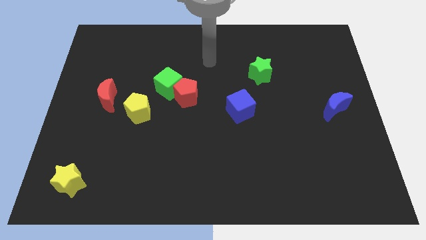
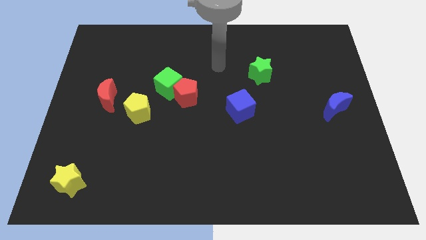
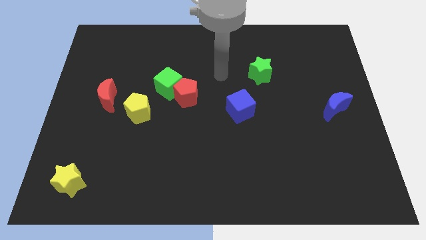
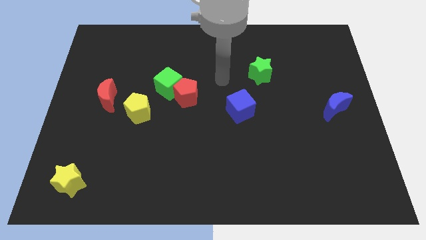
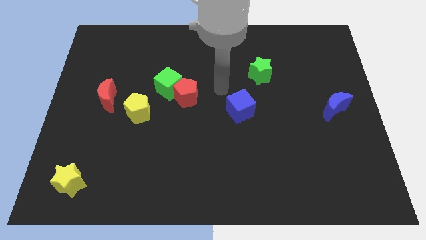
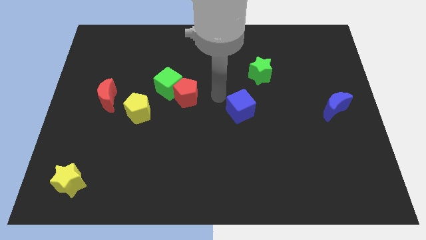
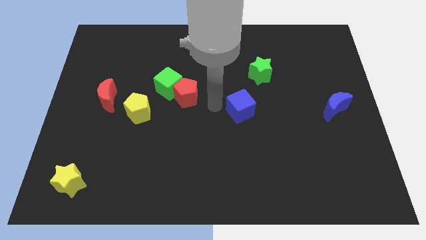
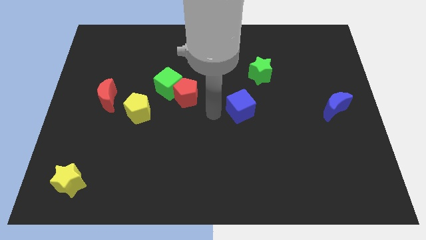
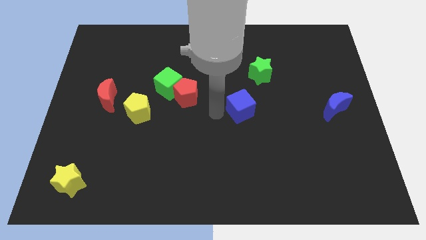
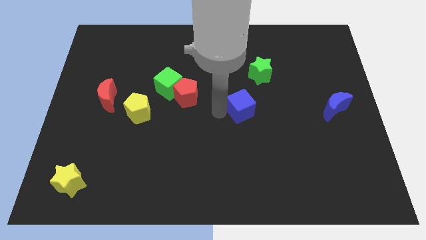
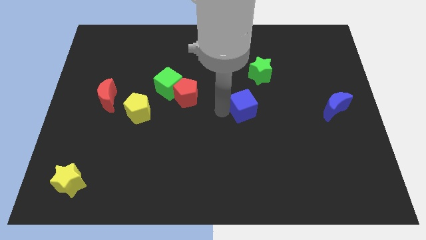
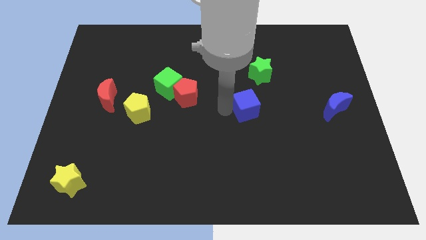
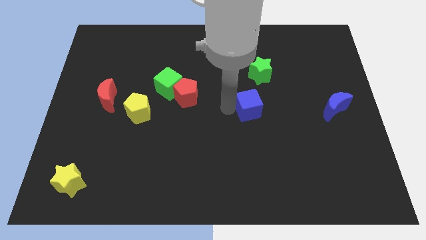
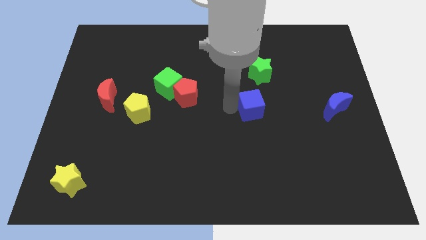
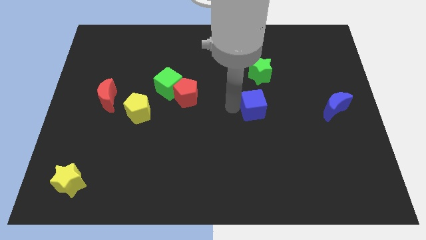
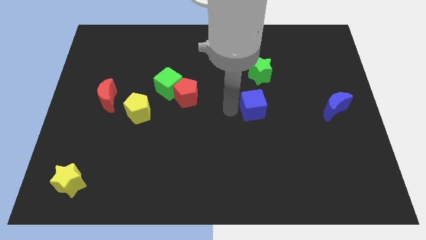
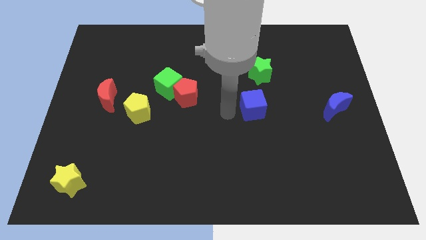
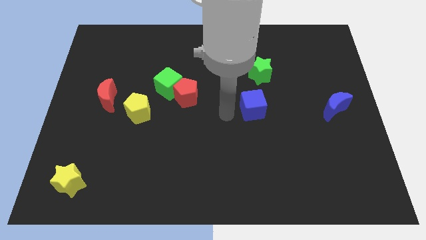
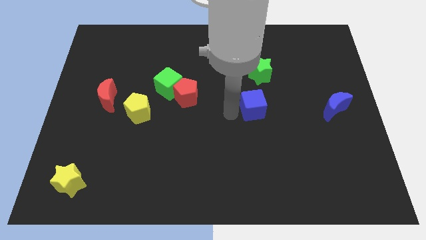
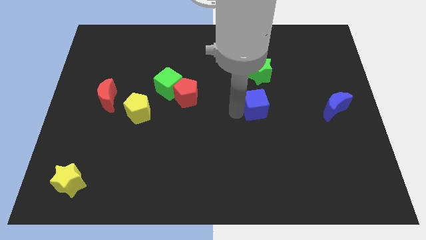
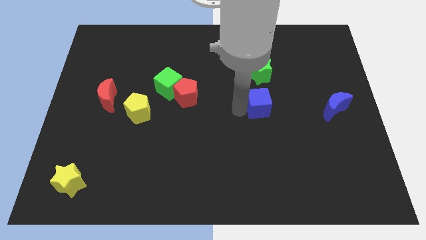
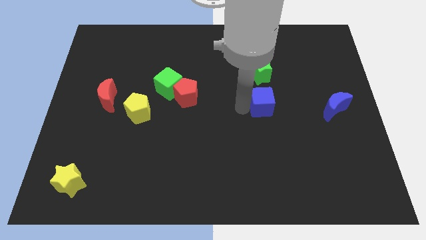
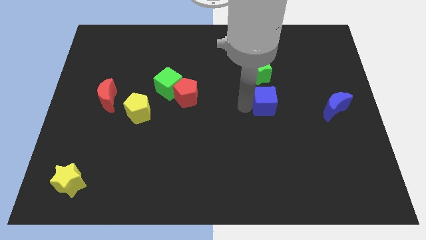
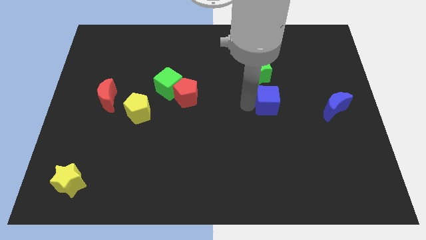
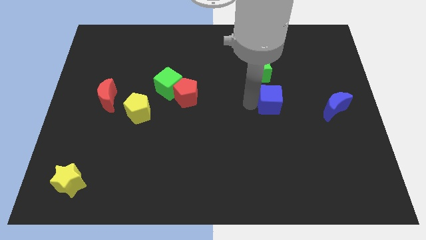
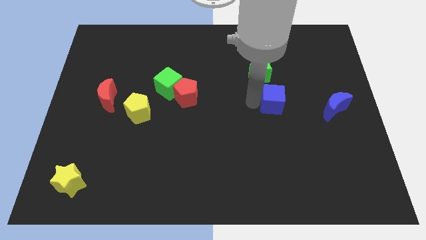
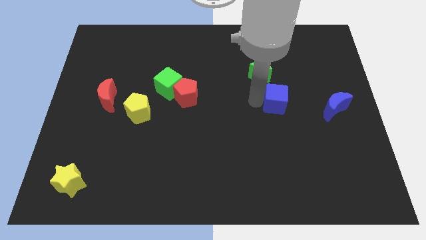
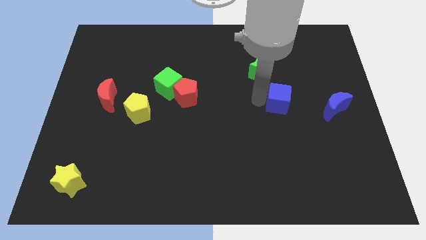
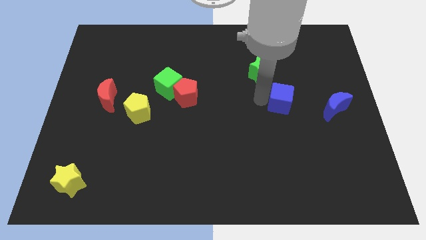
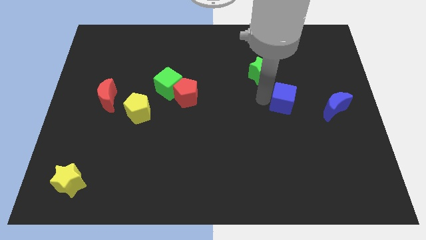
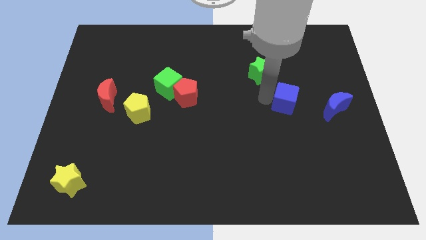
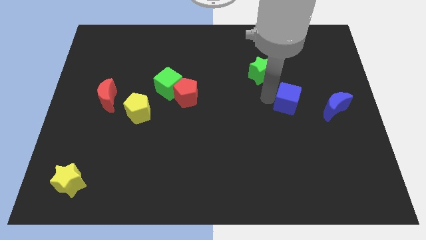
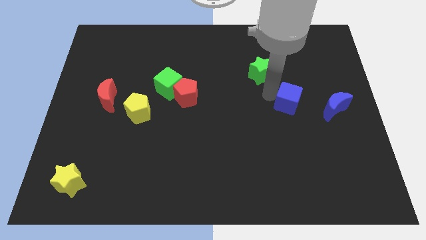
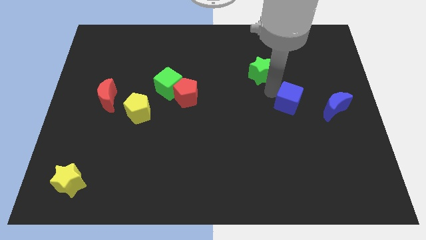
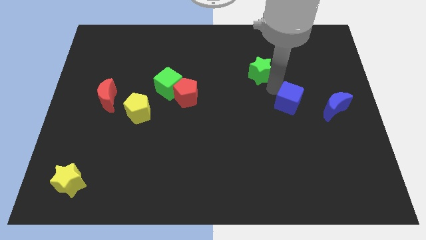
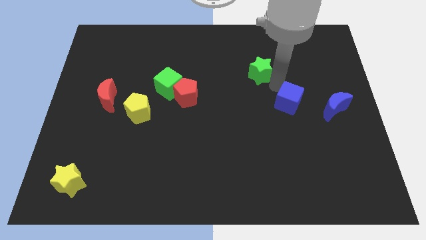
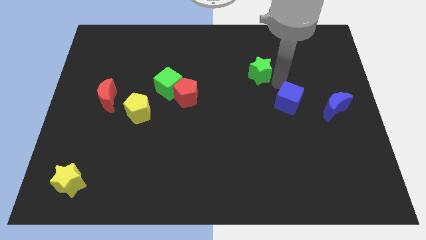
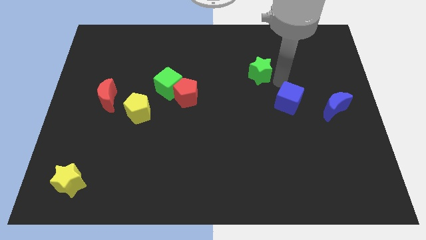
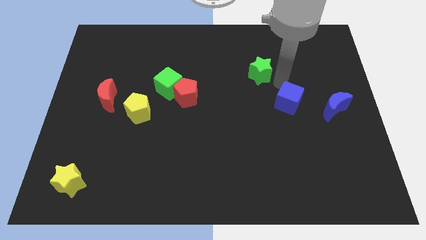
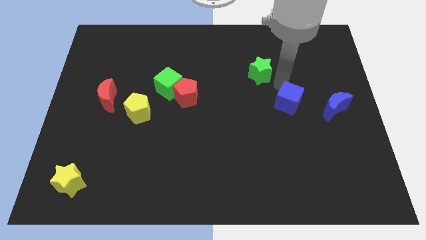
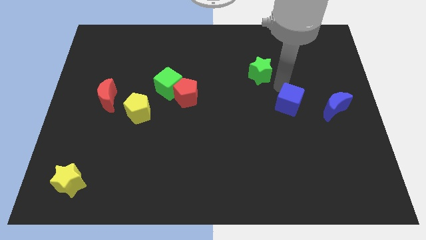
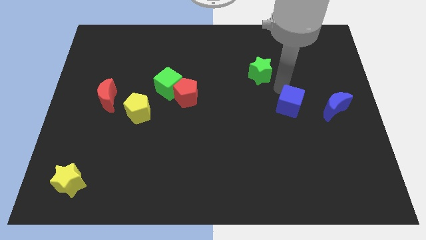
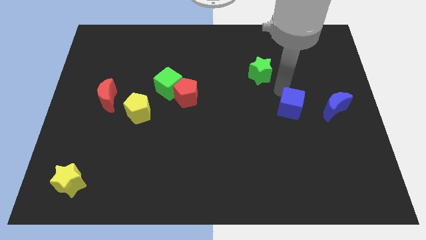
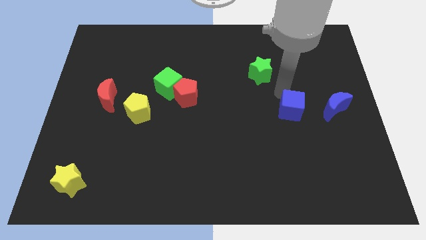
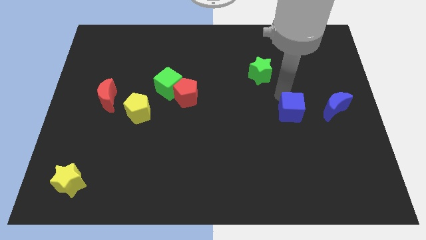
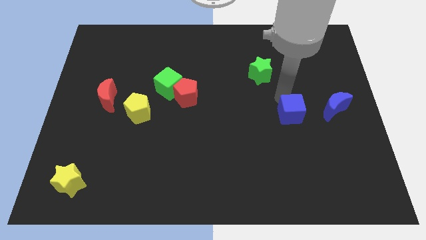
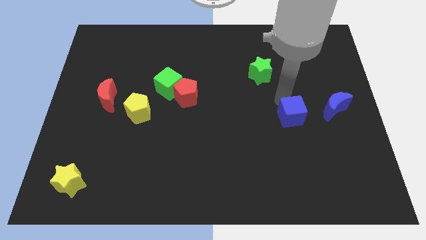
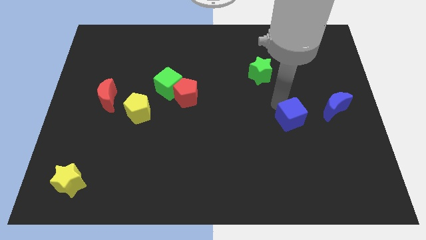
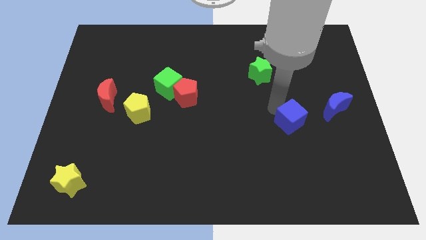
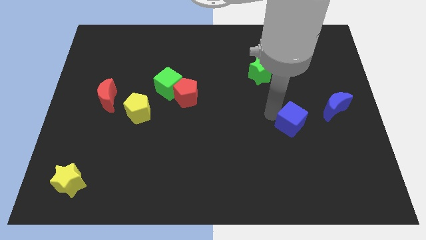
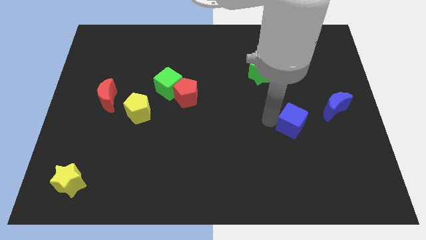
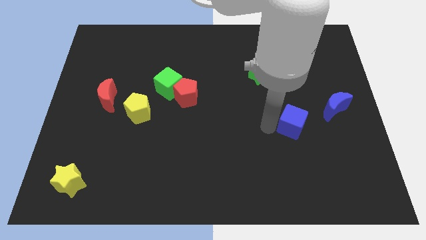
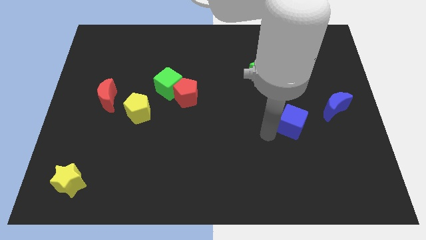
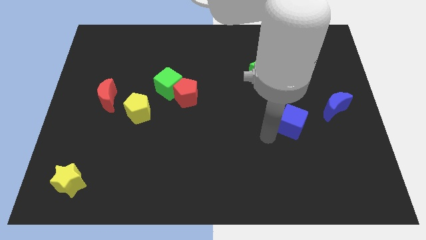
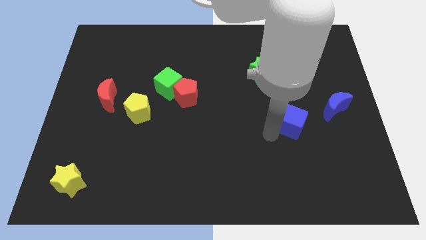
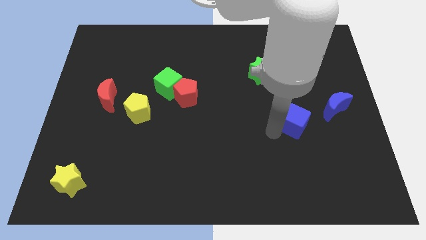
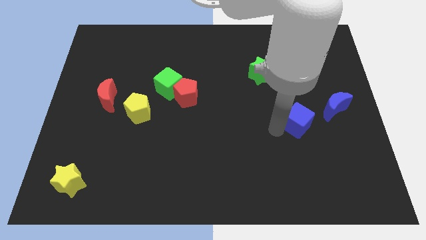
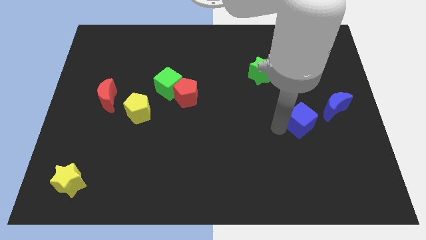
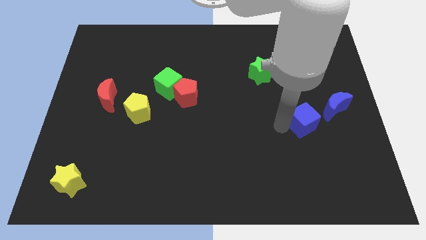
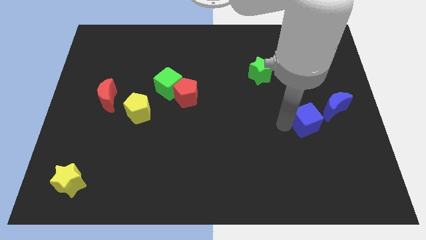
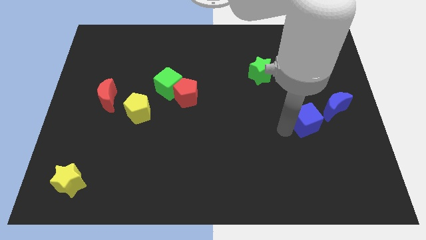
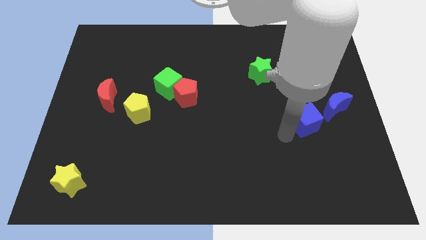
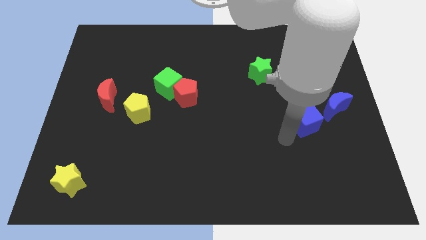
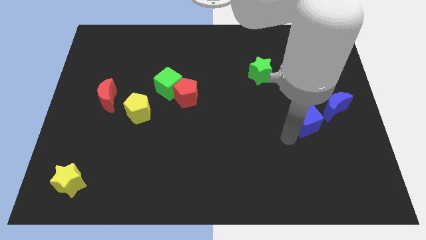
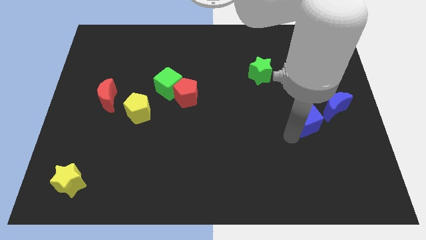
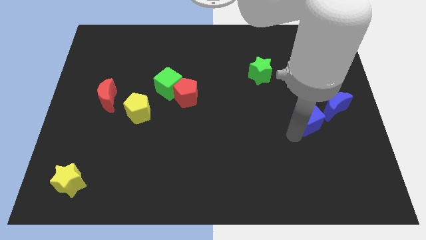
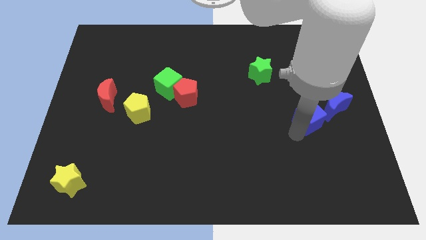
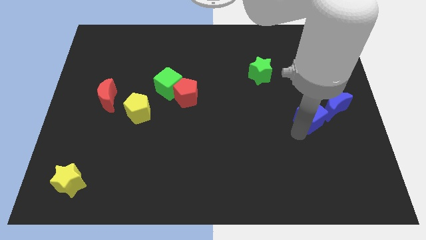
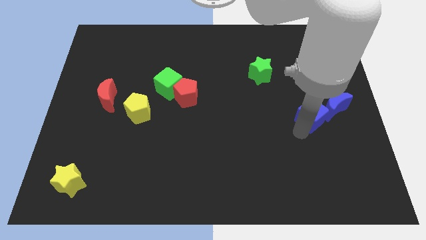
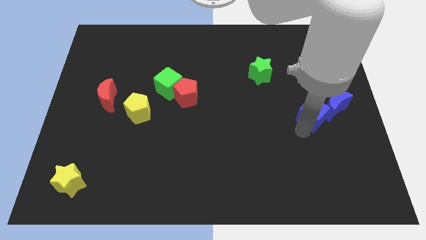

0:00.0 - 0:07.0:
slide the blue cube next to the blue moon

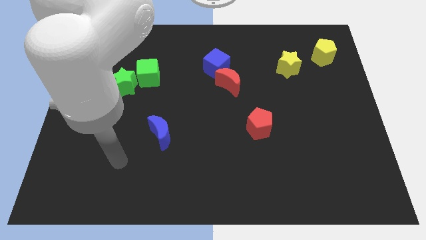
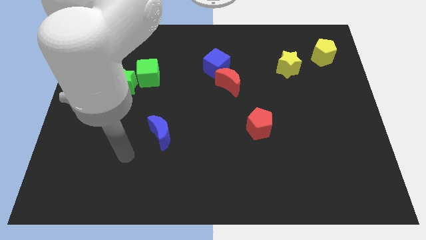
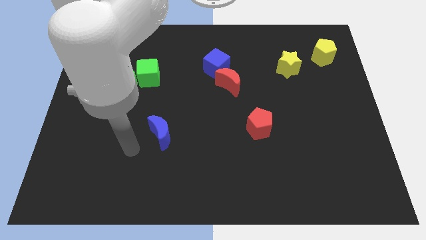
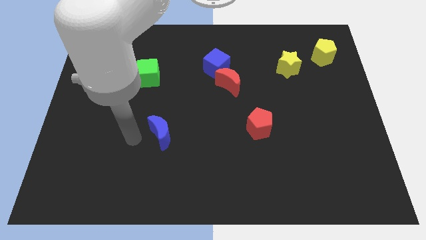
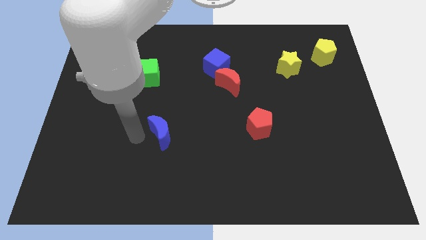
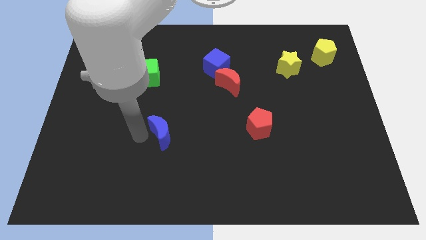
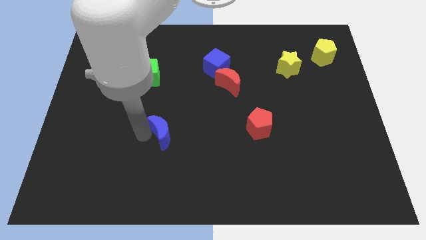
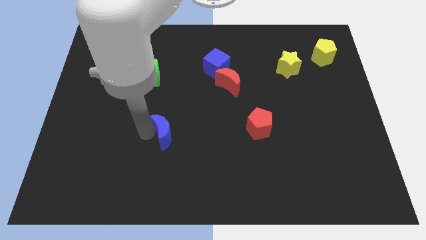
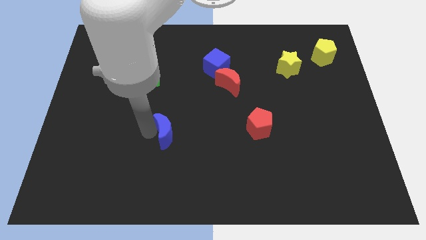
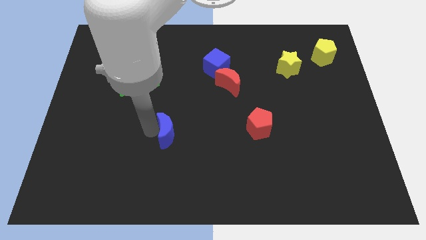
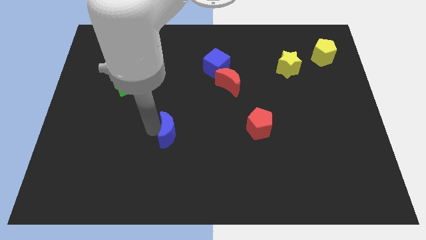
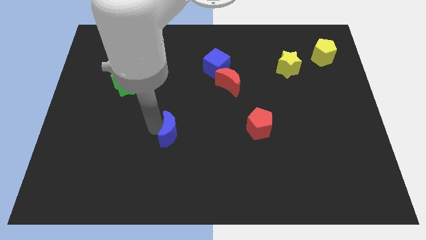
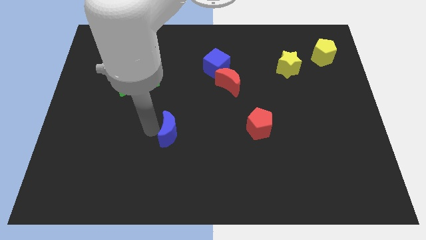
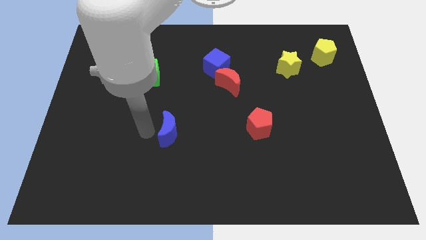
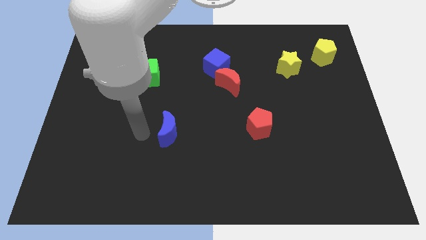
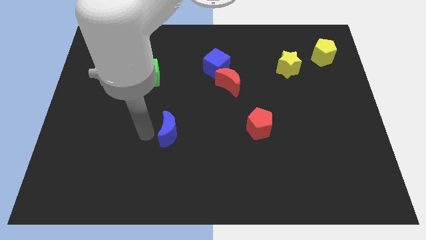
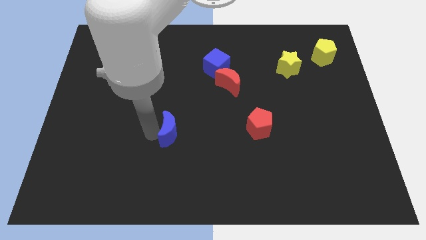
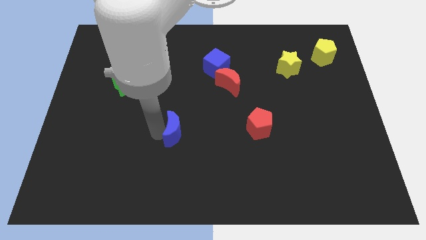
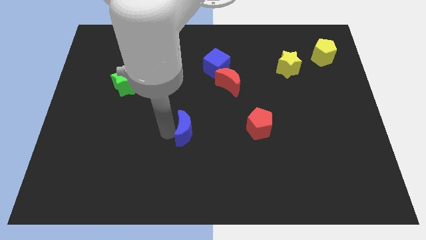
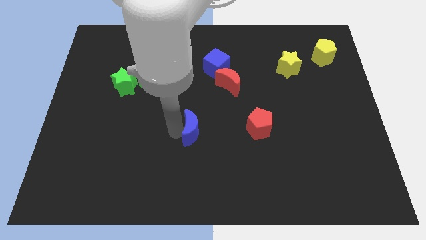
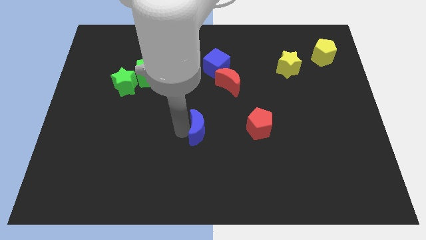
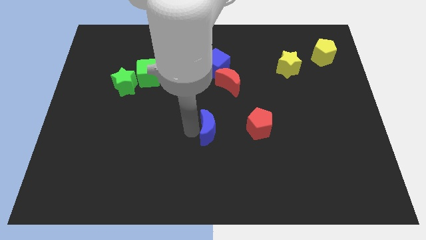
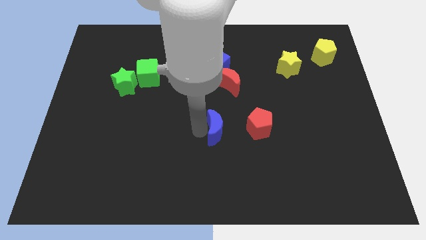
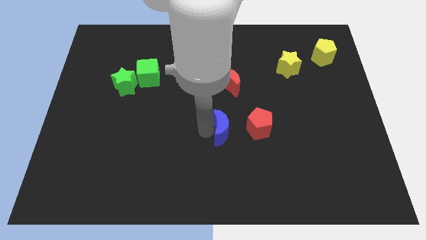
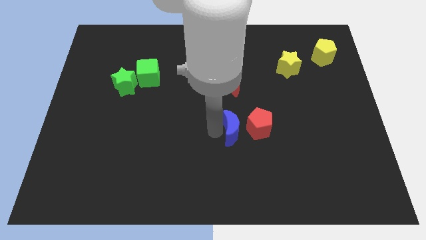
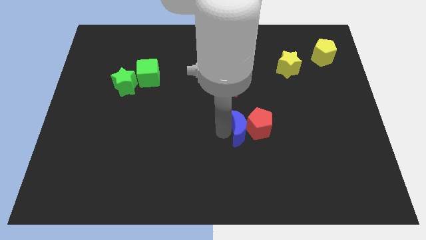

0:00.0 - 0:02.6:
put the blue moon close to the red pentagon
